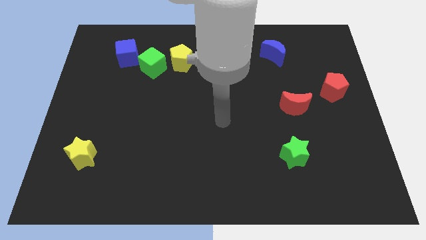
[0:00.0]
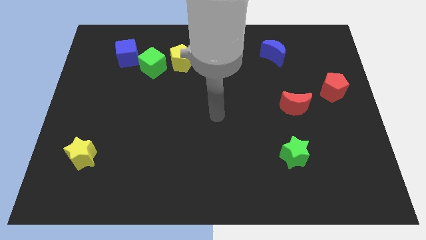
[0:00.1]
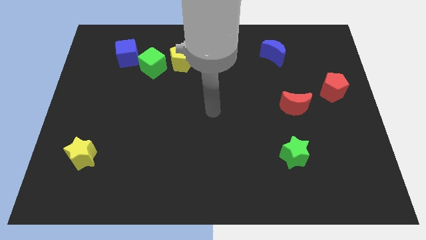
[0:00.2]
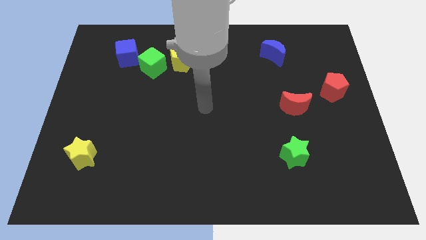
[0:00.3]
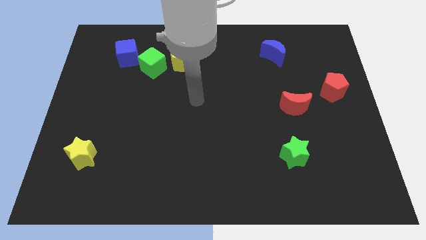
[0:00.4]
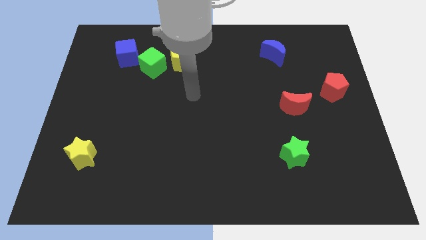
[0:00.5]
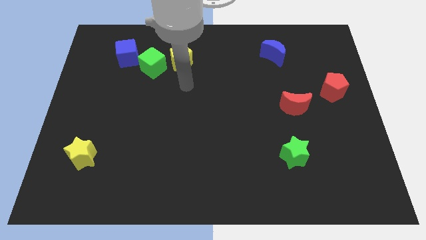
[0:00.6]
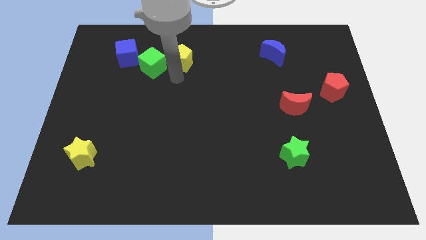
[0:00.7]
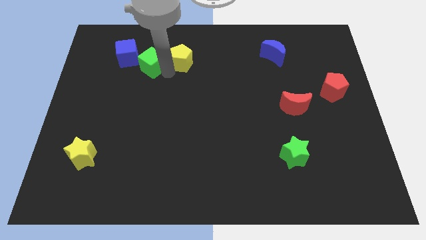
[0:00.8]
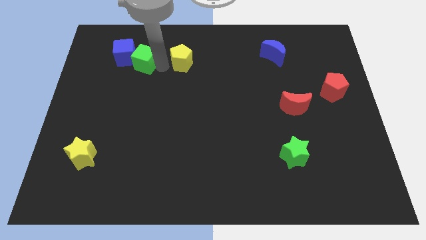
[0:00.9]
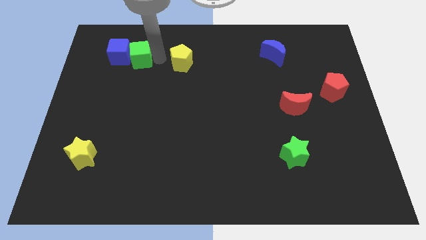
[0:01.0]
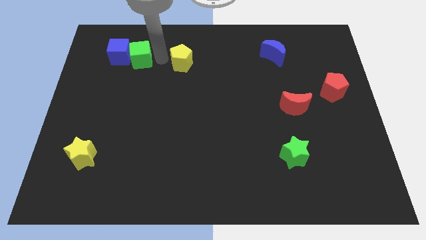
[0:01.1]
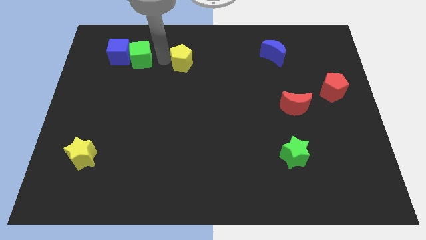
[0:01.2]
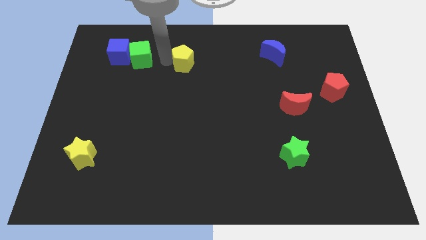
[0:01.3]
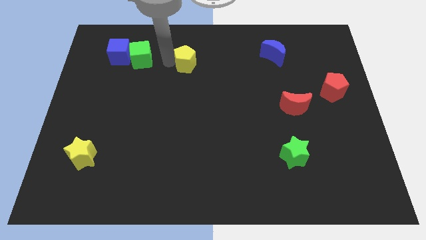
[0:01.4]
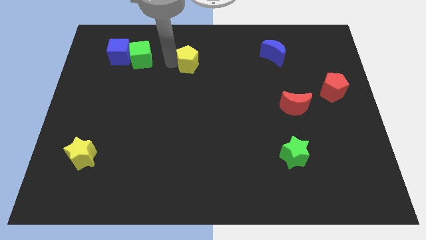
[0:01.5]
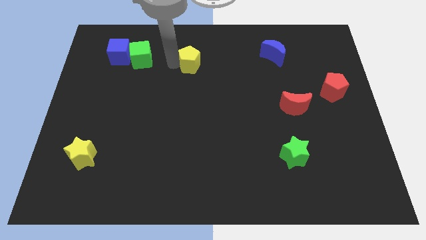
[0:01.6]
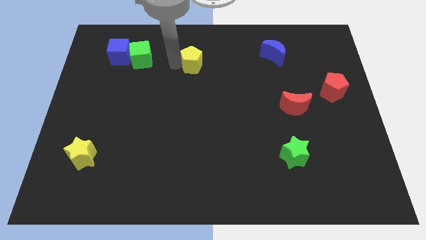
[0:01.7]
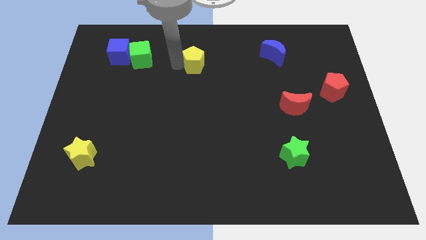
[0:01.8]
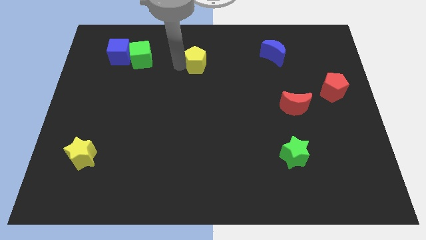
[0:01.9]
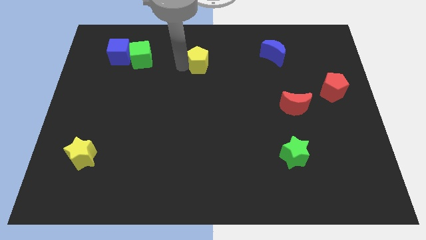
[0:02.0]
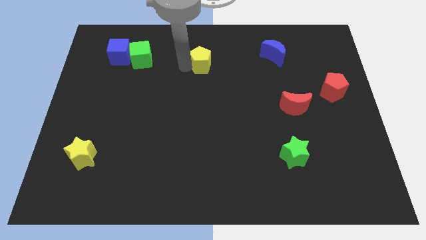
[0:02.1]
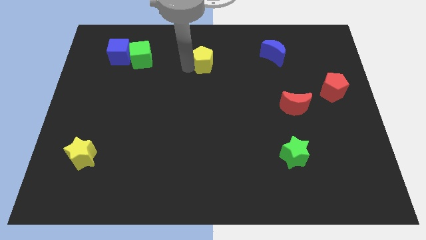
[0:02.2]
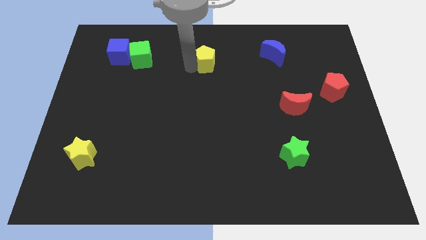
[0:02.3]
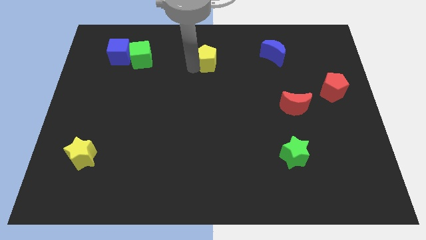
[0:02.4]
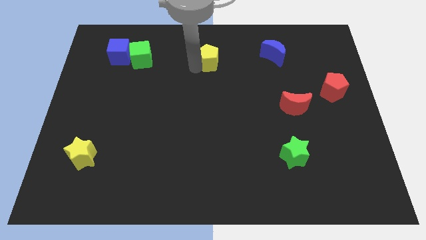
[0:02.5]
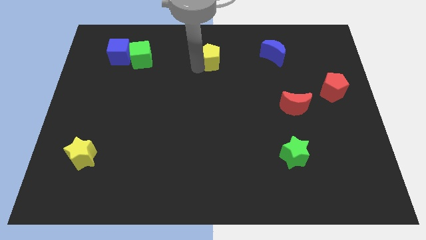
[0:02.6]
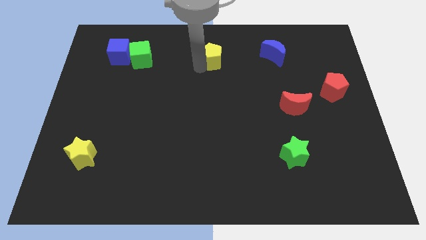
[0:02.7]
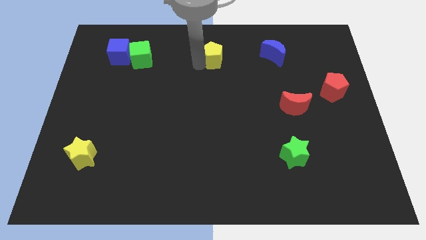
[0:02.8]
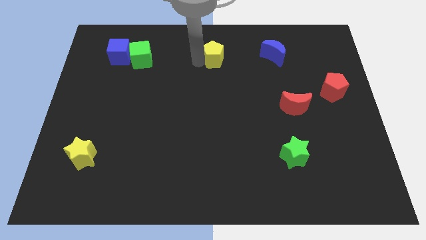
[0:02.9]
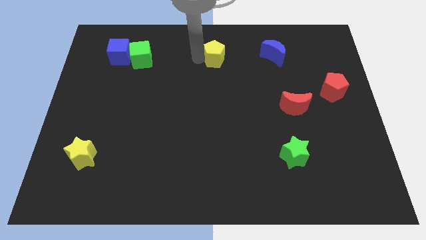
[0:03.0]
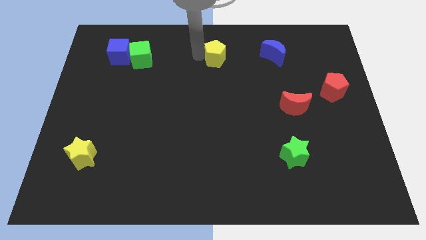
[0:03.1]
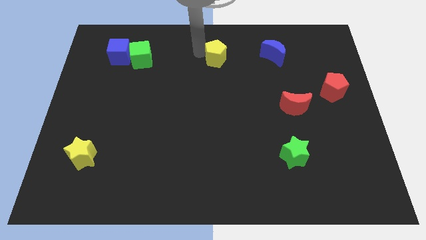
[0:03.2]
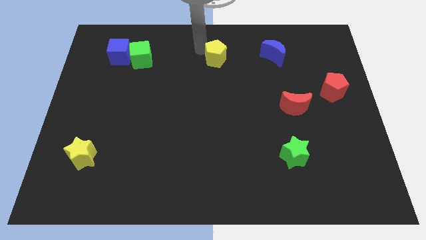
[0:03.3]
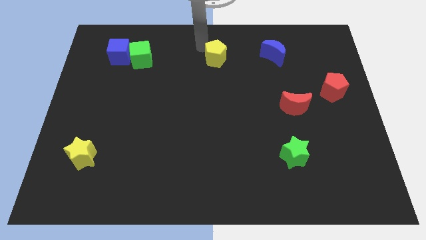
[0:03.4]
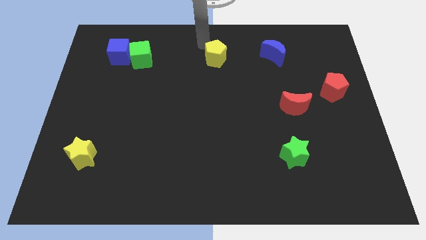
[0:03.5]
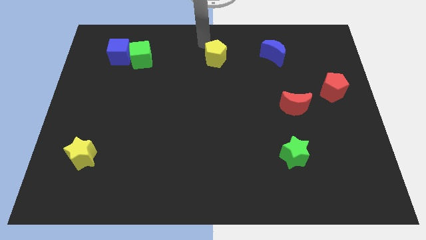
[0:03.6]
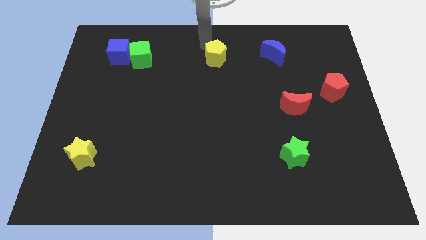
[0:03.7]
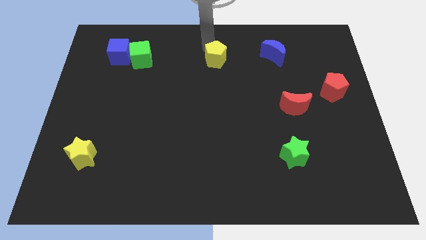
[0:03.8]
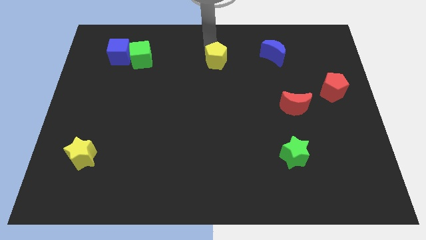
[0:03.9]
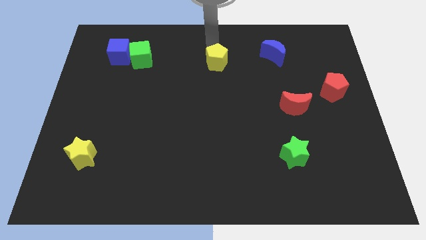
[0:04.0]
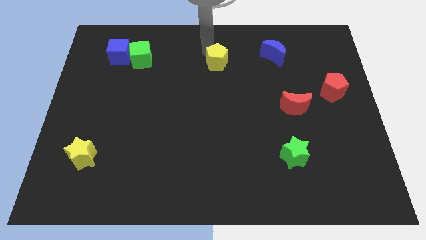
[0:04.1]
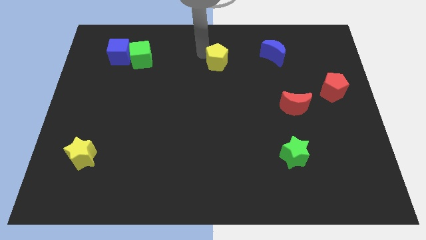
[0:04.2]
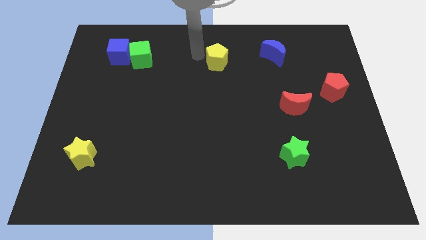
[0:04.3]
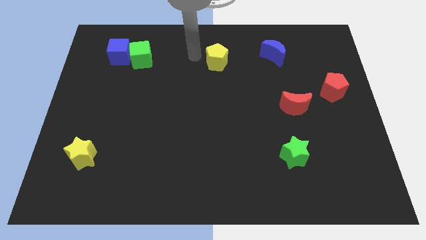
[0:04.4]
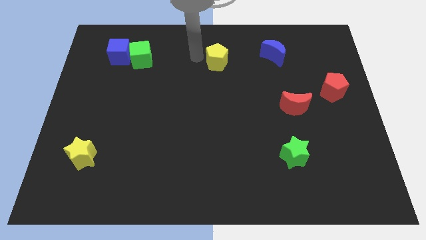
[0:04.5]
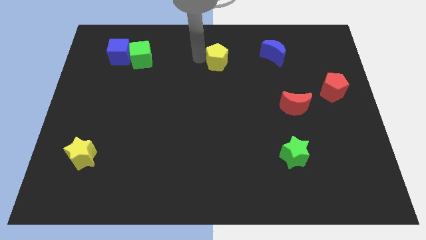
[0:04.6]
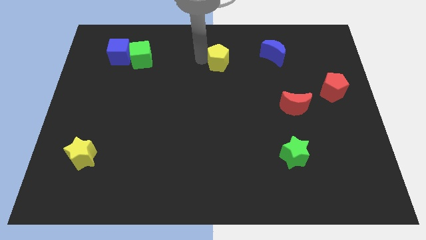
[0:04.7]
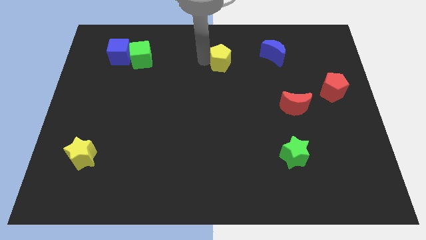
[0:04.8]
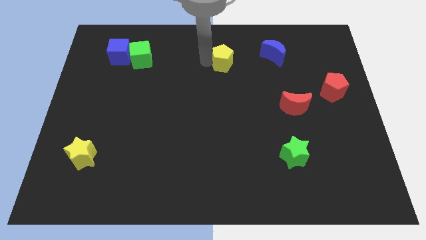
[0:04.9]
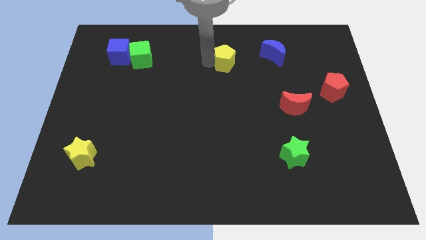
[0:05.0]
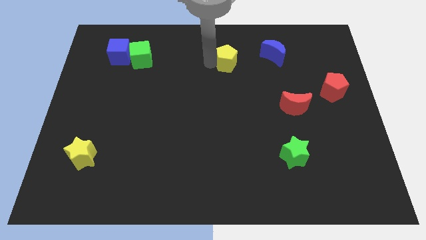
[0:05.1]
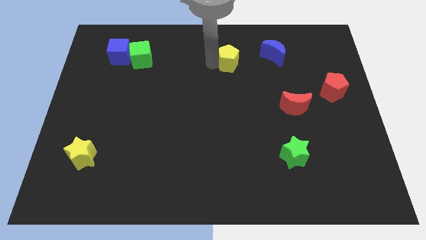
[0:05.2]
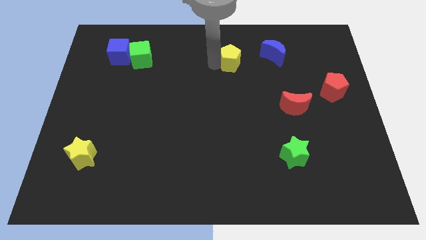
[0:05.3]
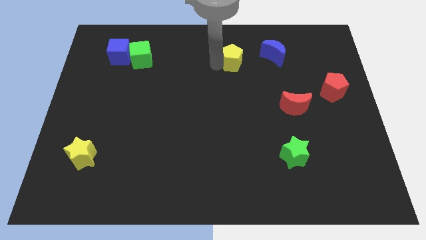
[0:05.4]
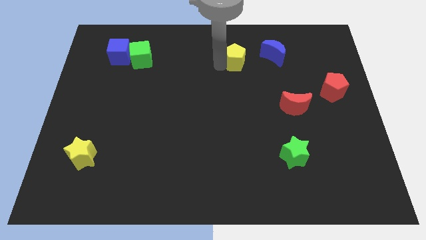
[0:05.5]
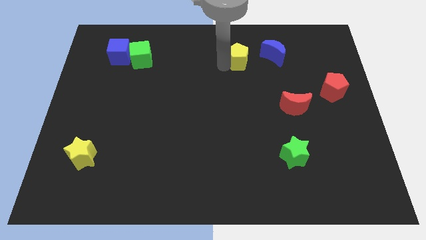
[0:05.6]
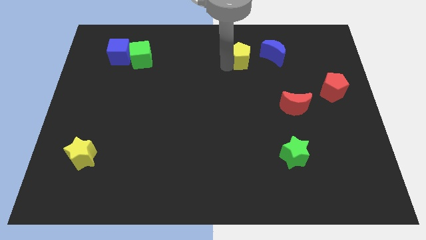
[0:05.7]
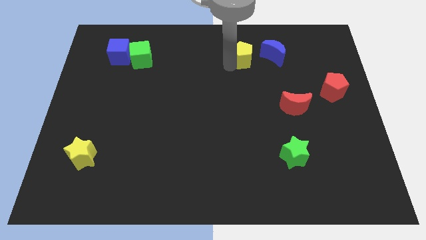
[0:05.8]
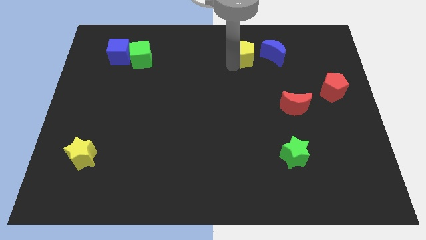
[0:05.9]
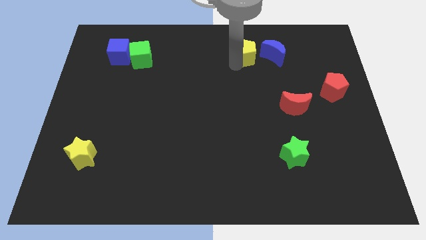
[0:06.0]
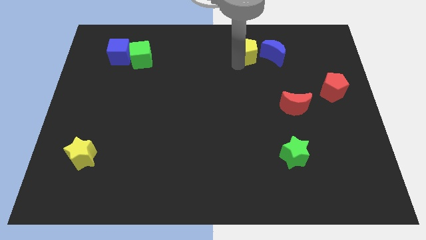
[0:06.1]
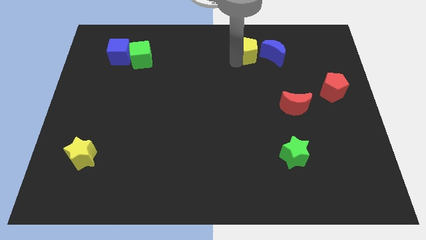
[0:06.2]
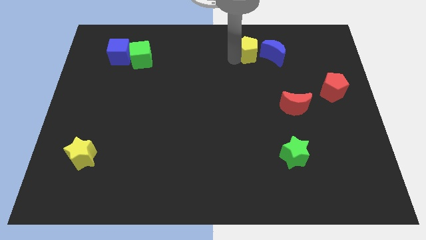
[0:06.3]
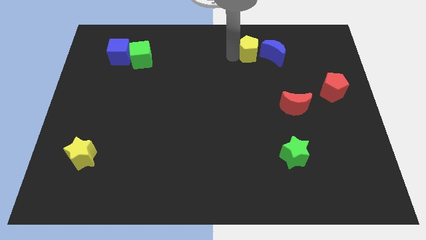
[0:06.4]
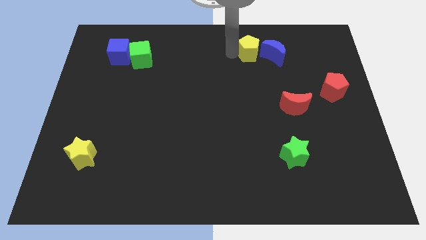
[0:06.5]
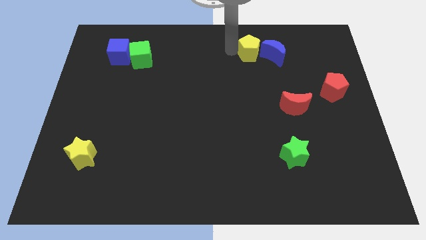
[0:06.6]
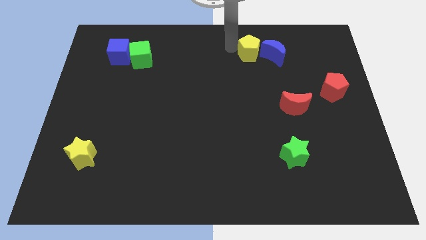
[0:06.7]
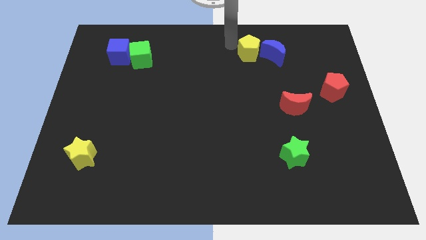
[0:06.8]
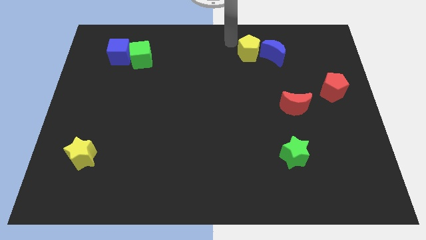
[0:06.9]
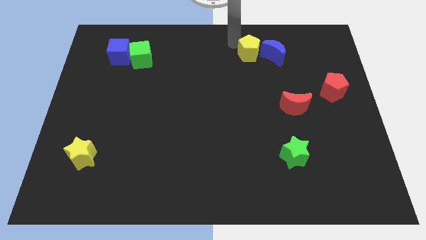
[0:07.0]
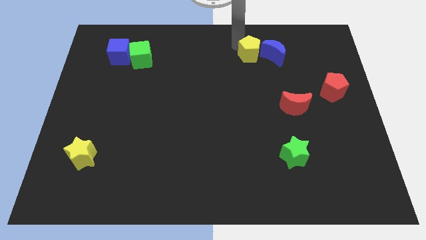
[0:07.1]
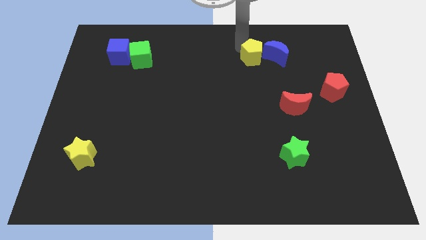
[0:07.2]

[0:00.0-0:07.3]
slide the yellow pentagon to the blue moon
